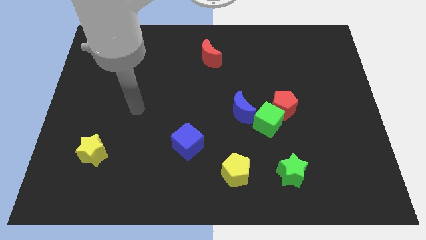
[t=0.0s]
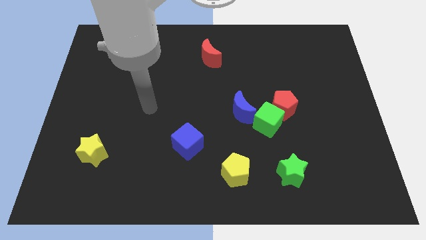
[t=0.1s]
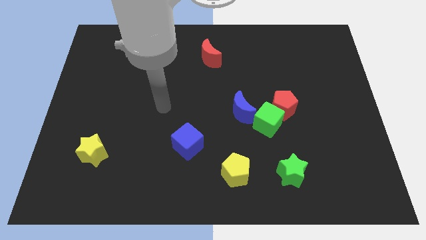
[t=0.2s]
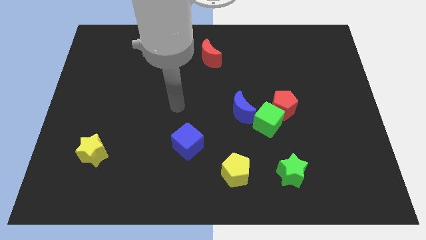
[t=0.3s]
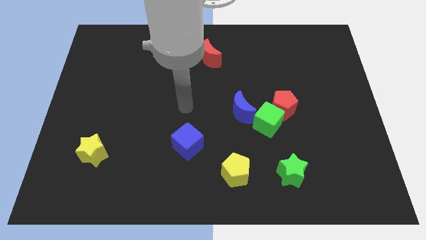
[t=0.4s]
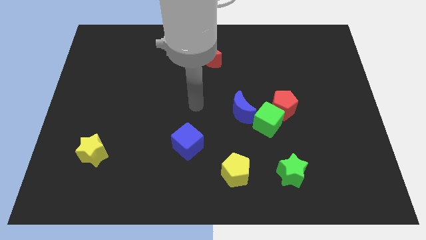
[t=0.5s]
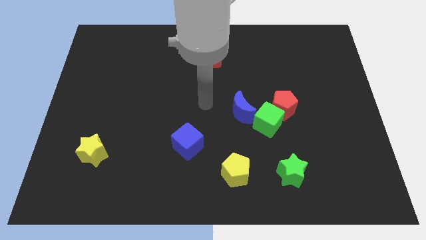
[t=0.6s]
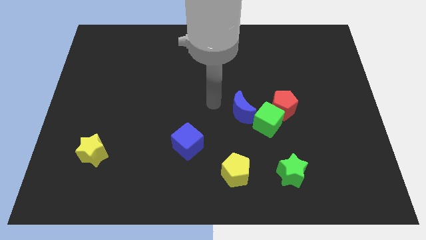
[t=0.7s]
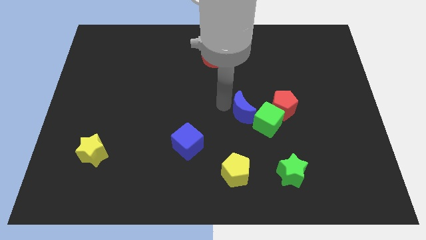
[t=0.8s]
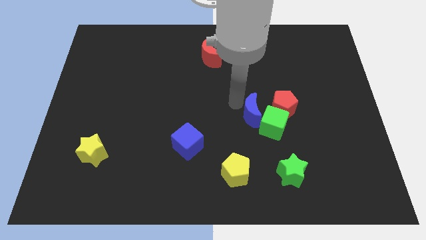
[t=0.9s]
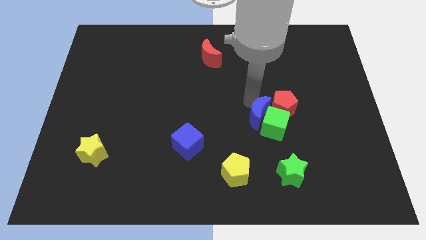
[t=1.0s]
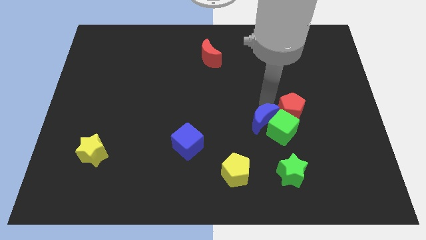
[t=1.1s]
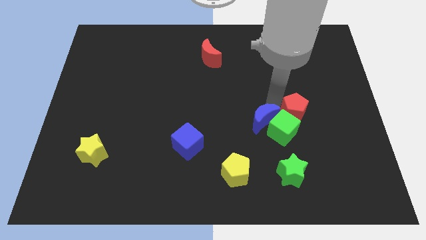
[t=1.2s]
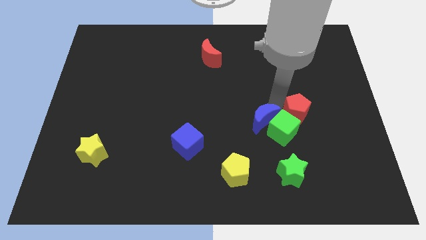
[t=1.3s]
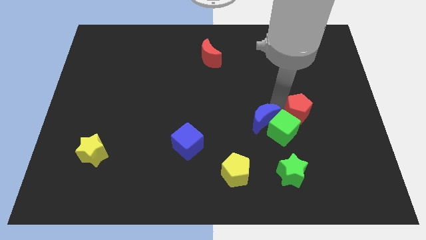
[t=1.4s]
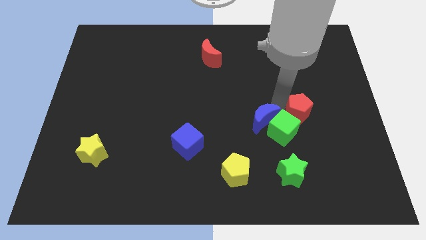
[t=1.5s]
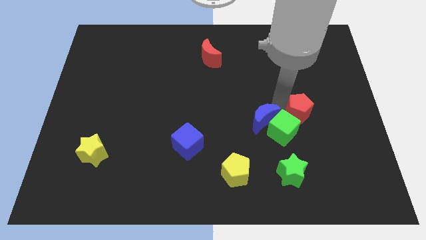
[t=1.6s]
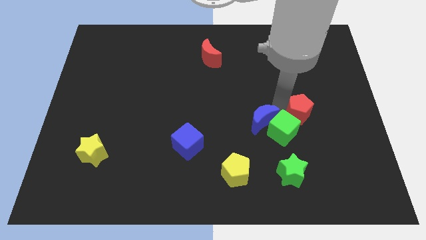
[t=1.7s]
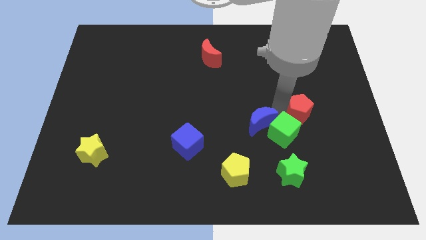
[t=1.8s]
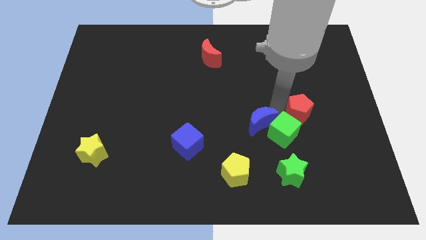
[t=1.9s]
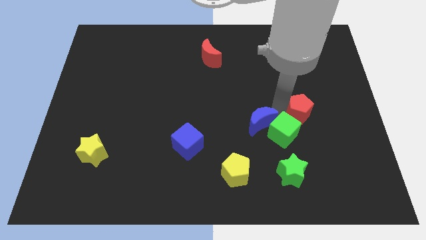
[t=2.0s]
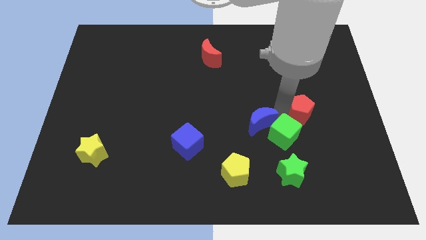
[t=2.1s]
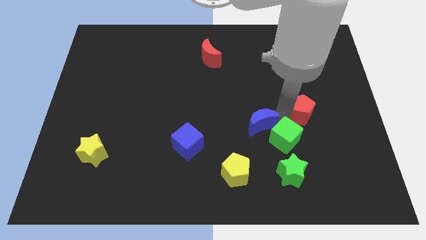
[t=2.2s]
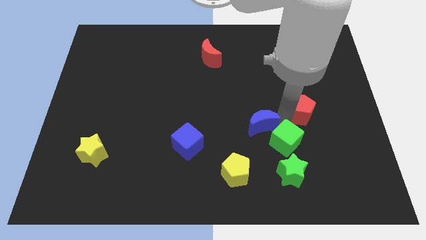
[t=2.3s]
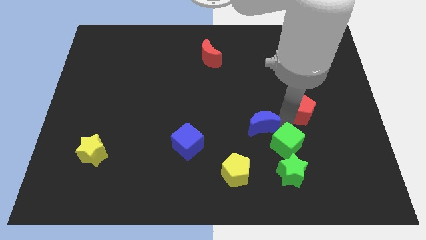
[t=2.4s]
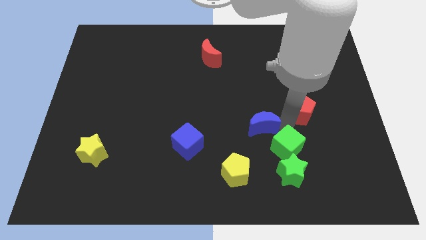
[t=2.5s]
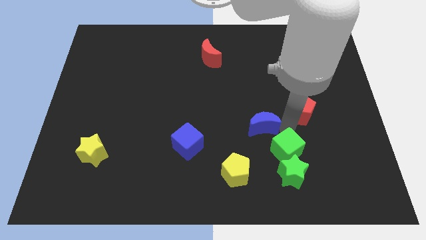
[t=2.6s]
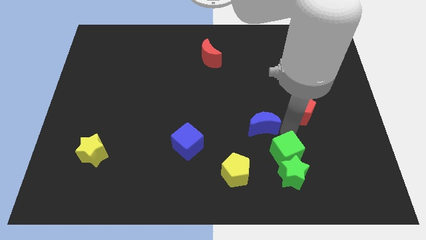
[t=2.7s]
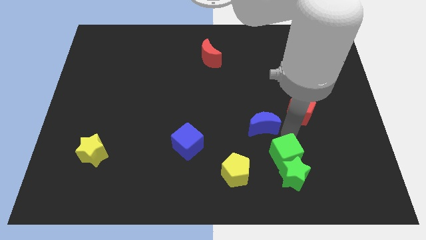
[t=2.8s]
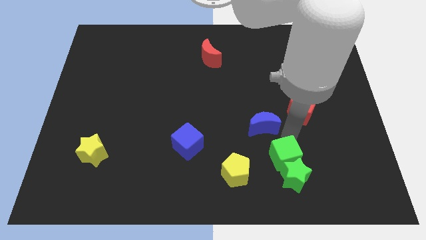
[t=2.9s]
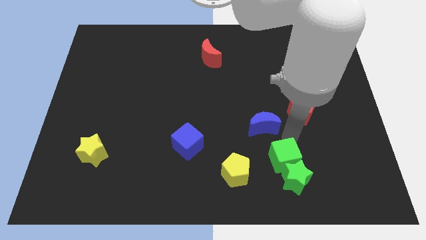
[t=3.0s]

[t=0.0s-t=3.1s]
pull the green cube apart from the red pentagon and blue moon

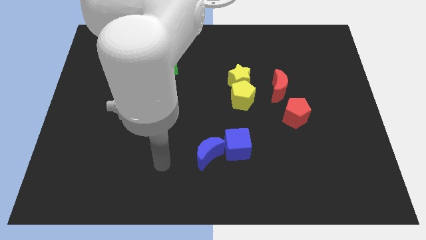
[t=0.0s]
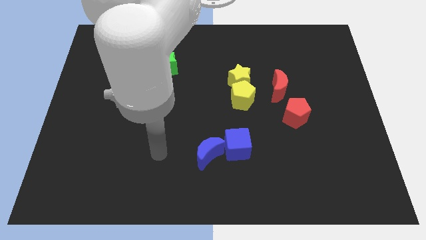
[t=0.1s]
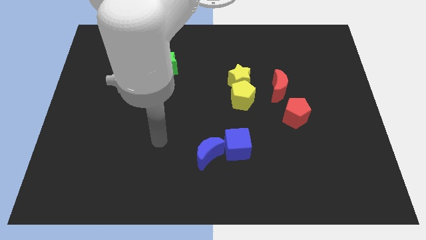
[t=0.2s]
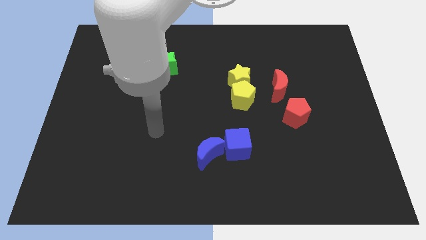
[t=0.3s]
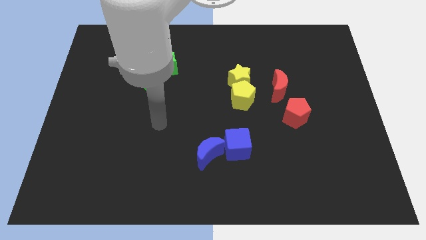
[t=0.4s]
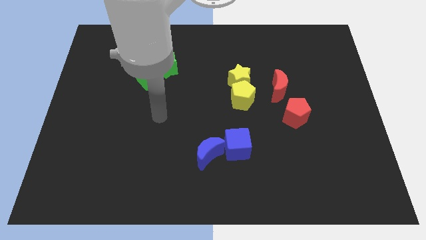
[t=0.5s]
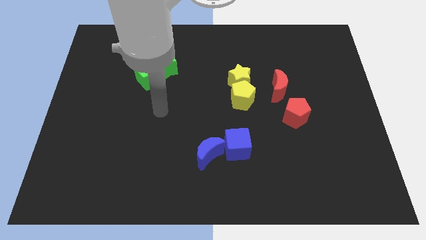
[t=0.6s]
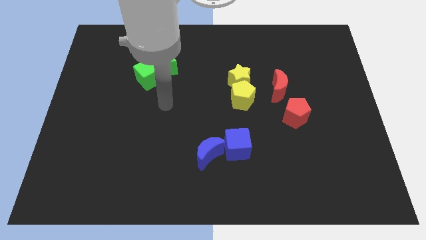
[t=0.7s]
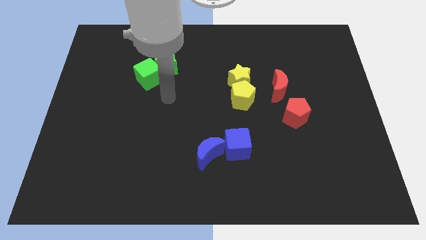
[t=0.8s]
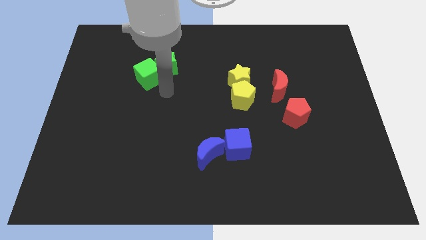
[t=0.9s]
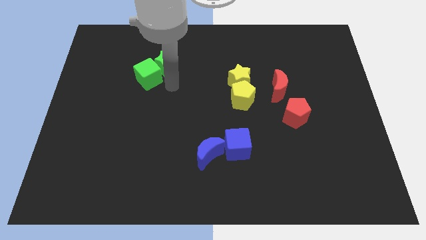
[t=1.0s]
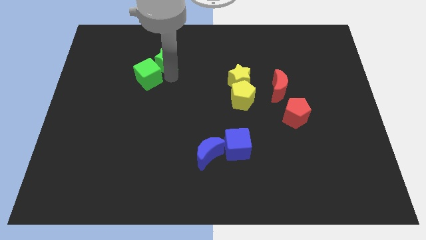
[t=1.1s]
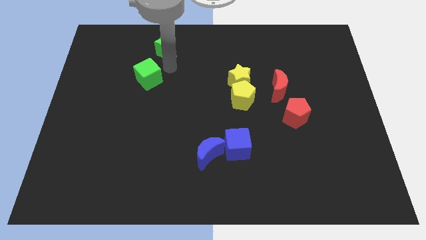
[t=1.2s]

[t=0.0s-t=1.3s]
pull the green cube apart from the green star

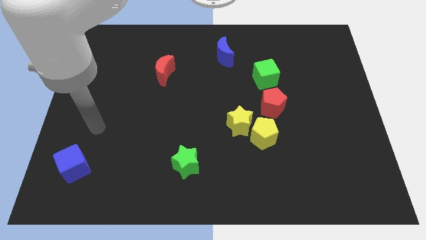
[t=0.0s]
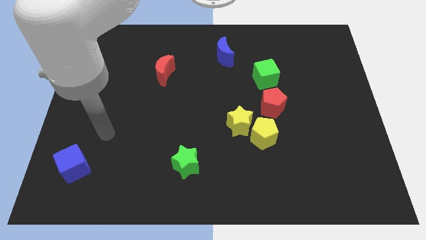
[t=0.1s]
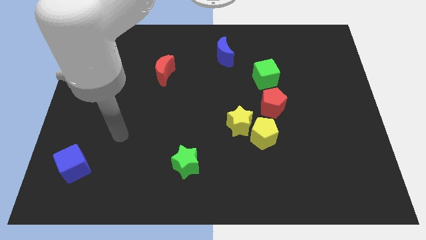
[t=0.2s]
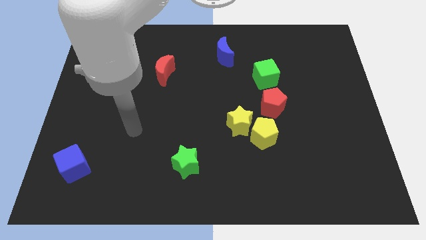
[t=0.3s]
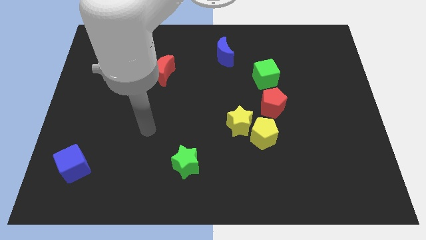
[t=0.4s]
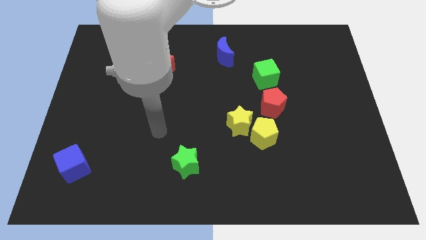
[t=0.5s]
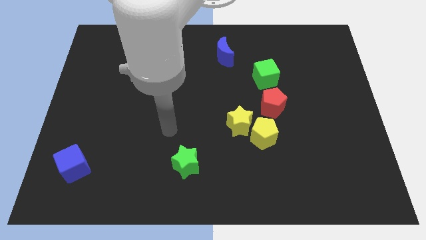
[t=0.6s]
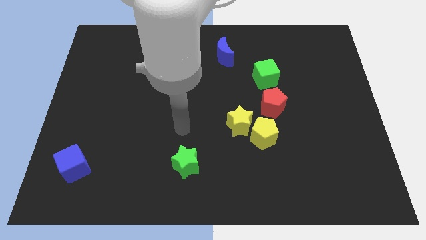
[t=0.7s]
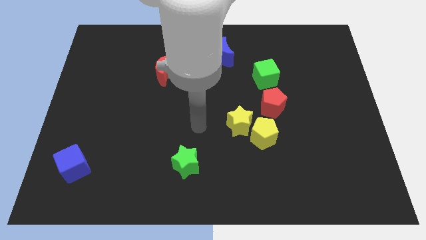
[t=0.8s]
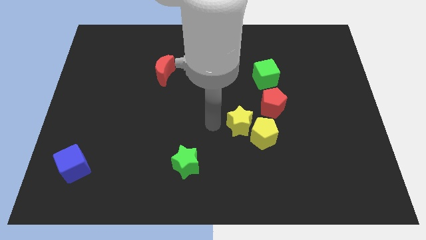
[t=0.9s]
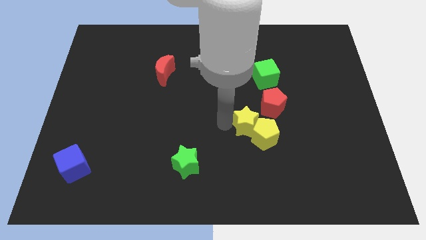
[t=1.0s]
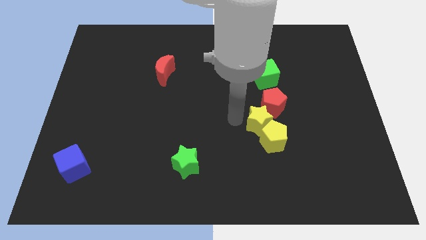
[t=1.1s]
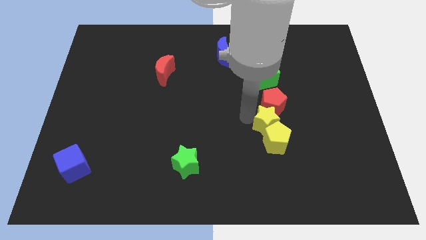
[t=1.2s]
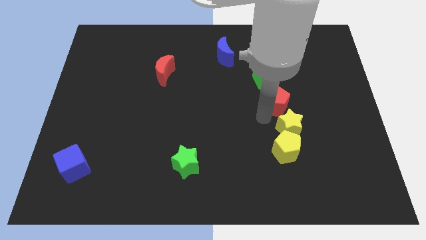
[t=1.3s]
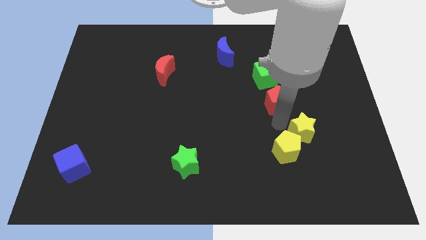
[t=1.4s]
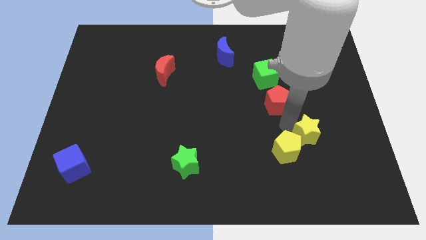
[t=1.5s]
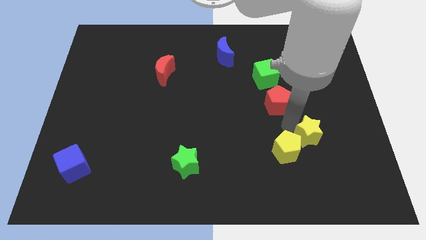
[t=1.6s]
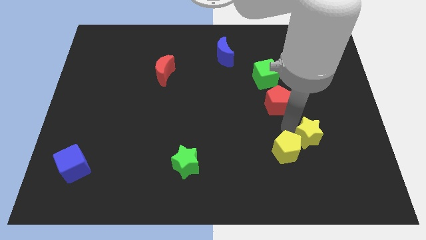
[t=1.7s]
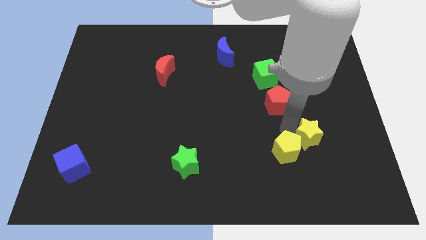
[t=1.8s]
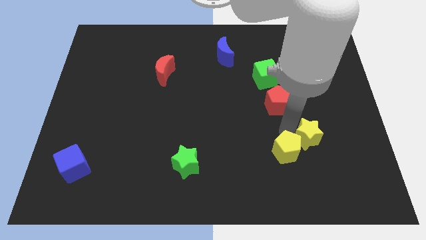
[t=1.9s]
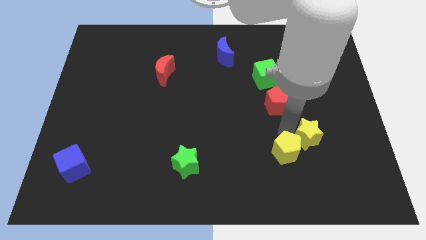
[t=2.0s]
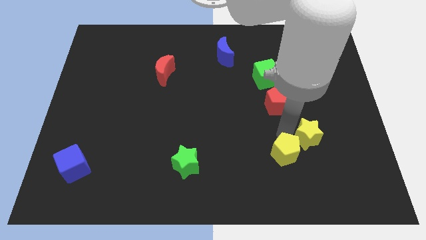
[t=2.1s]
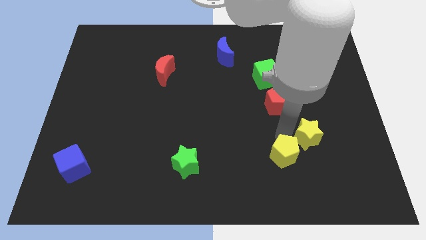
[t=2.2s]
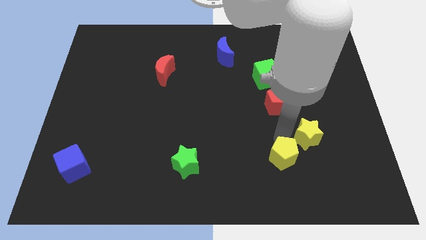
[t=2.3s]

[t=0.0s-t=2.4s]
move the yellow pentagon away from the yellow star and red pentagon

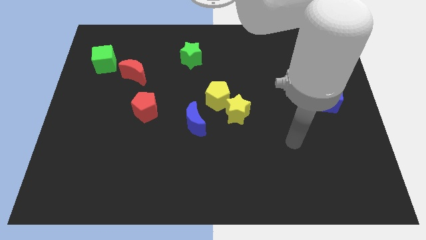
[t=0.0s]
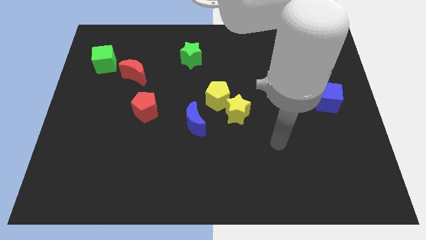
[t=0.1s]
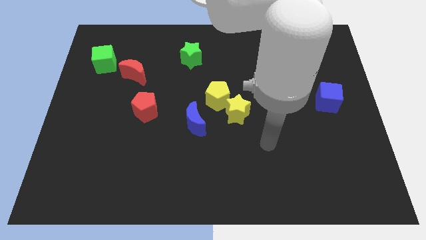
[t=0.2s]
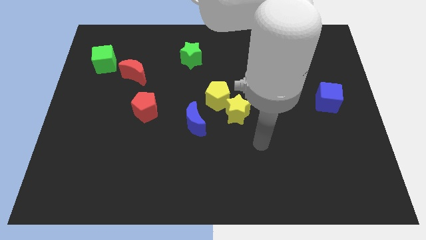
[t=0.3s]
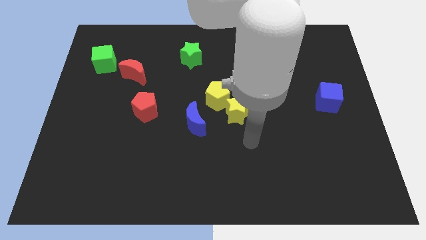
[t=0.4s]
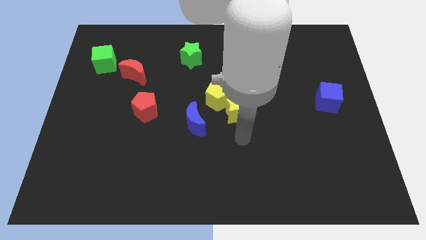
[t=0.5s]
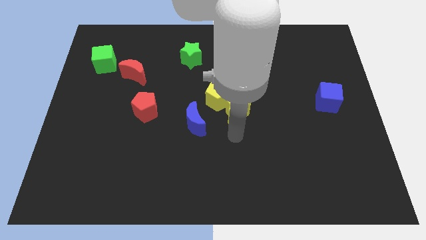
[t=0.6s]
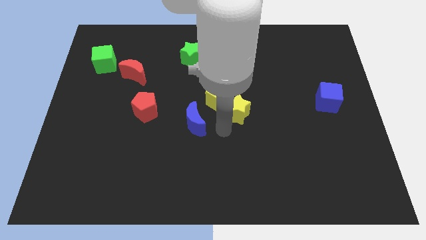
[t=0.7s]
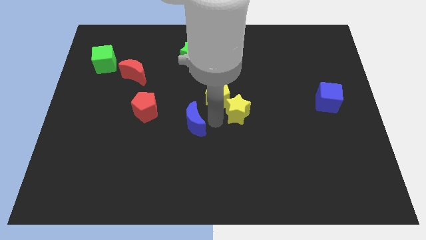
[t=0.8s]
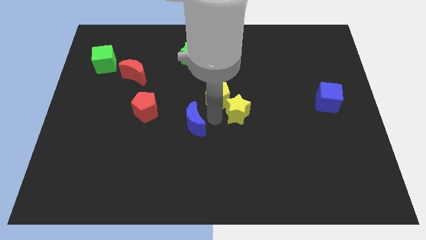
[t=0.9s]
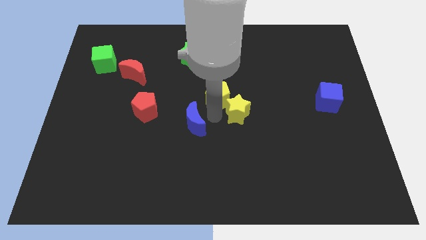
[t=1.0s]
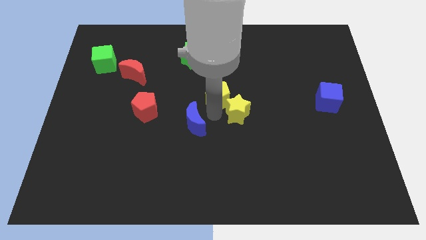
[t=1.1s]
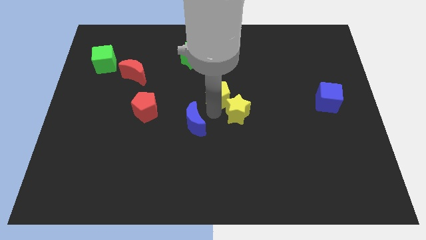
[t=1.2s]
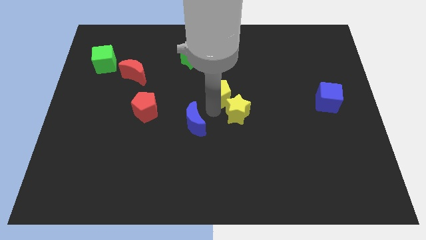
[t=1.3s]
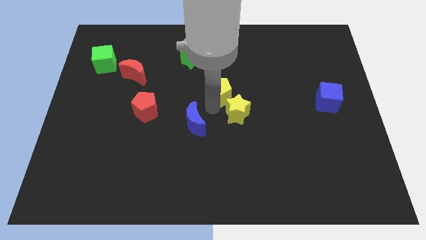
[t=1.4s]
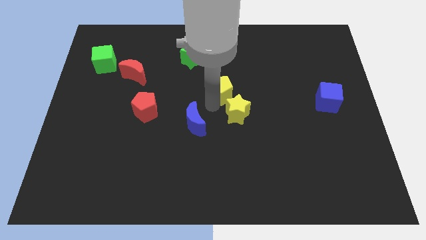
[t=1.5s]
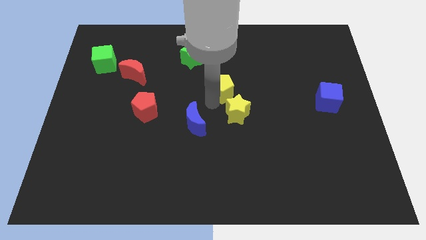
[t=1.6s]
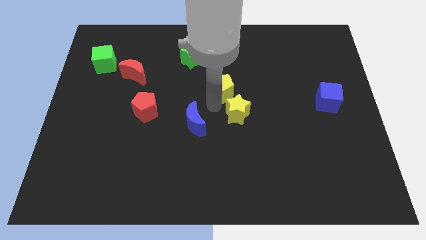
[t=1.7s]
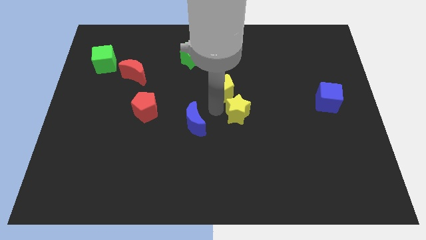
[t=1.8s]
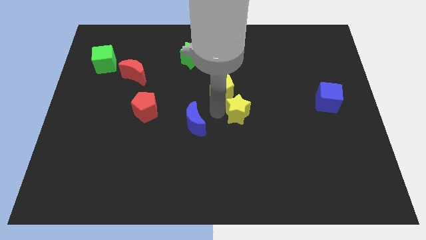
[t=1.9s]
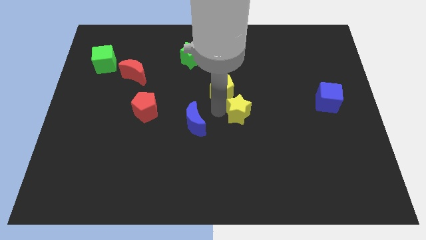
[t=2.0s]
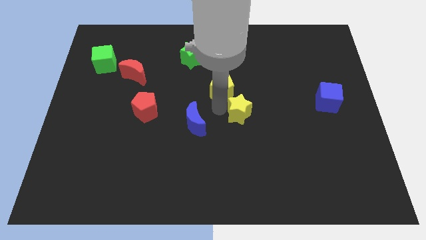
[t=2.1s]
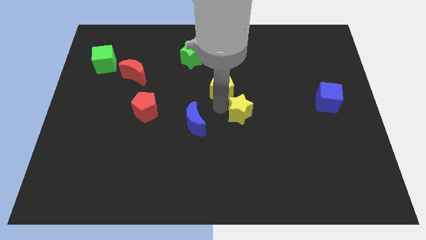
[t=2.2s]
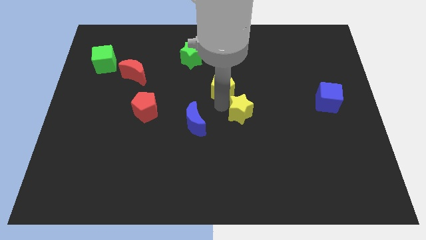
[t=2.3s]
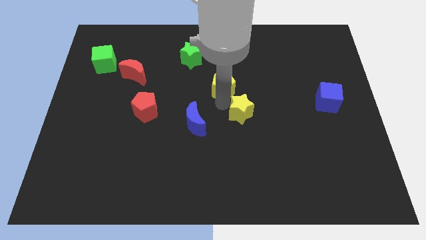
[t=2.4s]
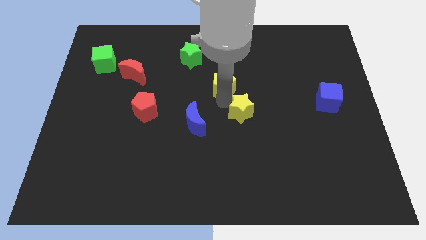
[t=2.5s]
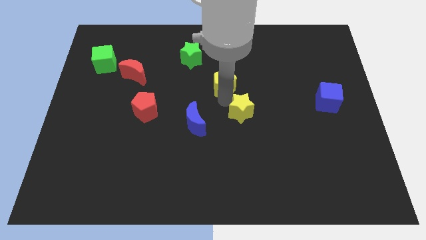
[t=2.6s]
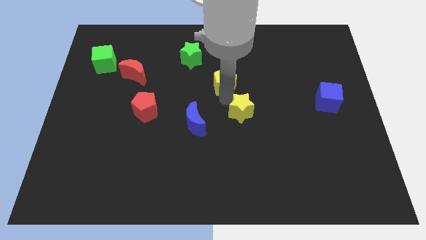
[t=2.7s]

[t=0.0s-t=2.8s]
pull the yellow pentagon apart from the yellow star and blue moon
